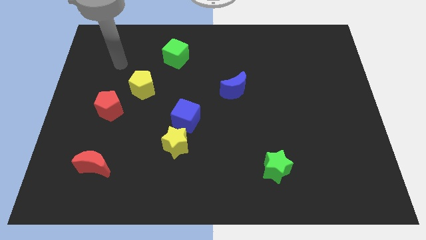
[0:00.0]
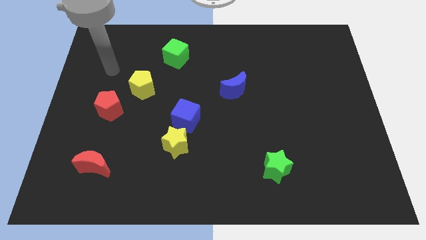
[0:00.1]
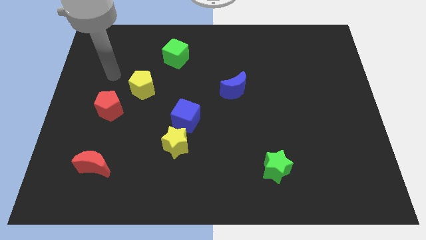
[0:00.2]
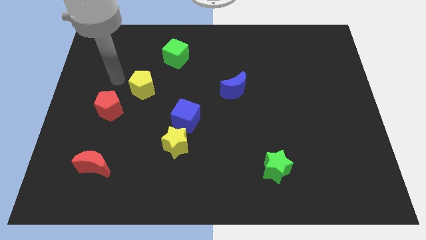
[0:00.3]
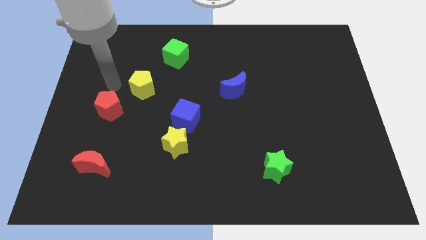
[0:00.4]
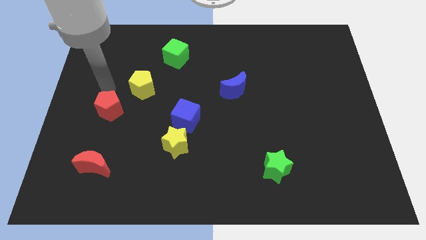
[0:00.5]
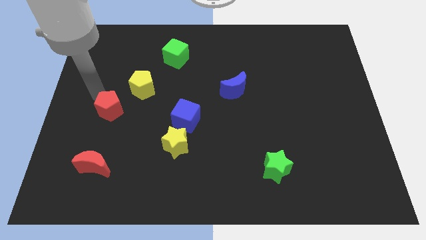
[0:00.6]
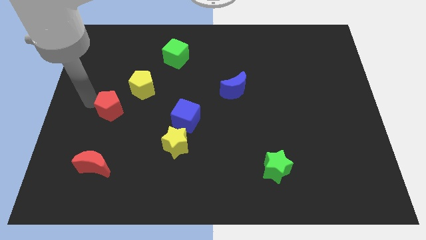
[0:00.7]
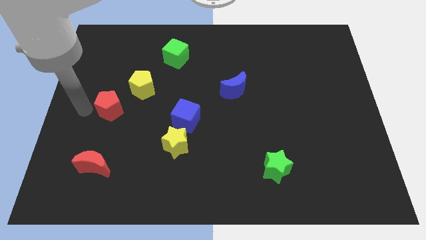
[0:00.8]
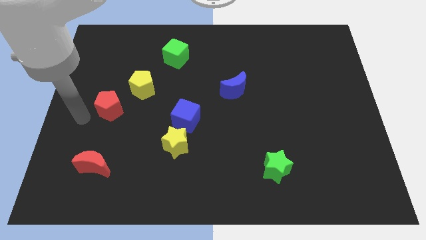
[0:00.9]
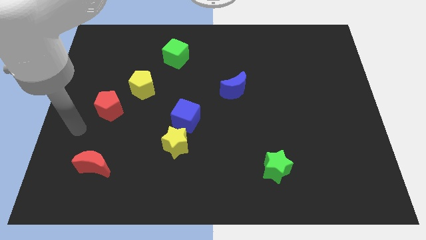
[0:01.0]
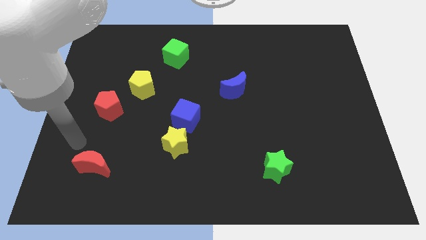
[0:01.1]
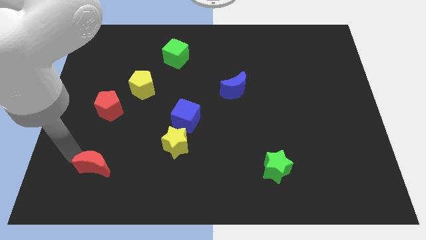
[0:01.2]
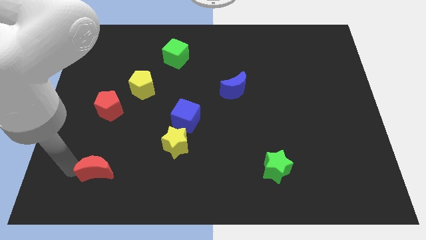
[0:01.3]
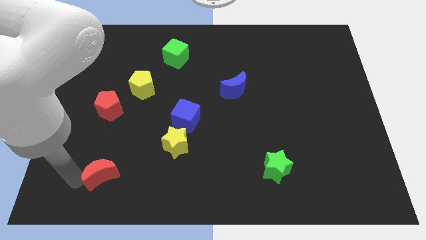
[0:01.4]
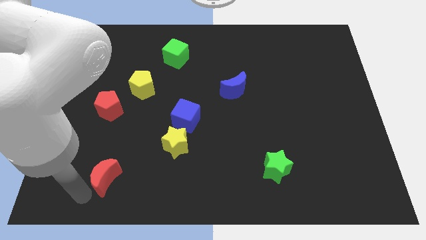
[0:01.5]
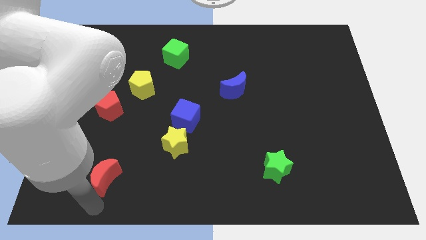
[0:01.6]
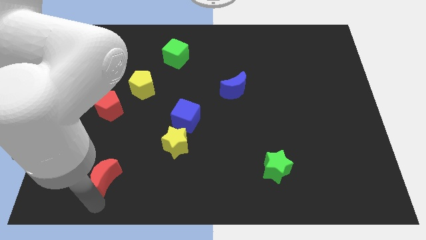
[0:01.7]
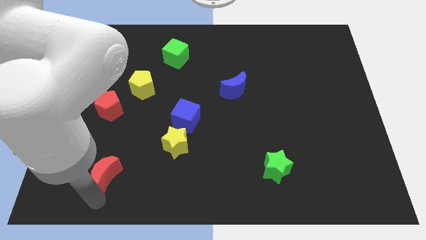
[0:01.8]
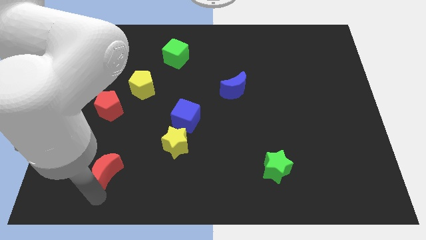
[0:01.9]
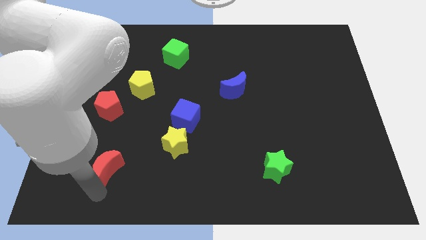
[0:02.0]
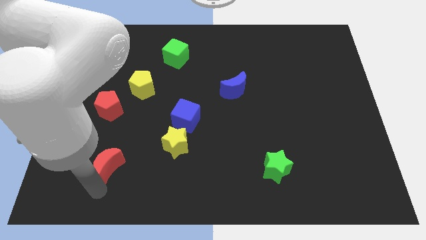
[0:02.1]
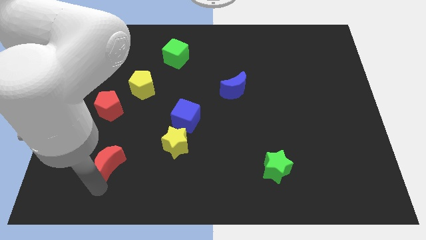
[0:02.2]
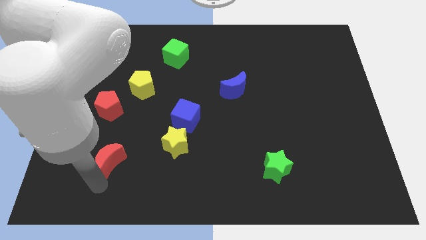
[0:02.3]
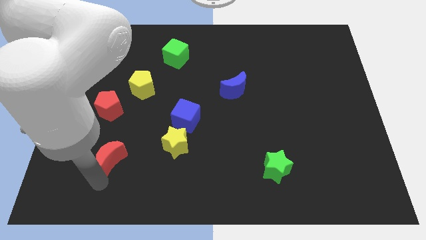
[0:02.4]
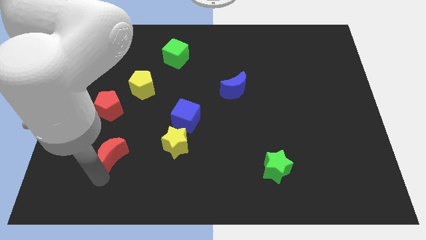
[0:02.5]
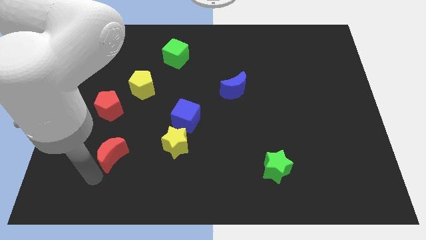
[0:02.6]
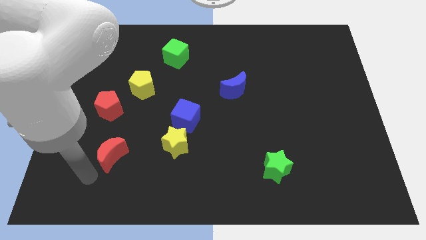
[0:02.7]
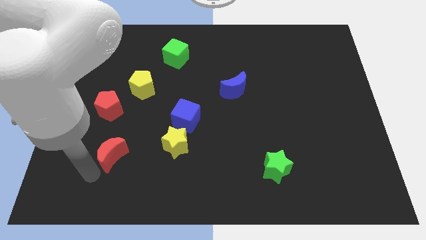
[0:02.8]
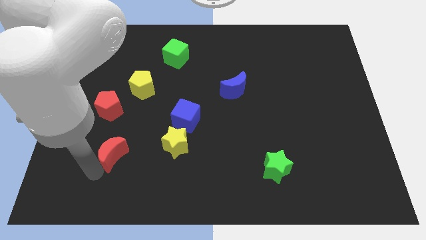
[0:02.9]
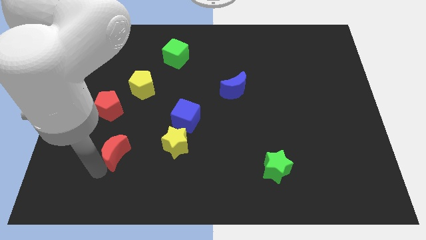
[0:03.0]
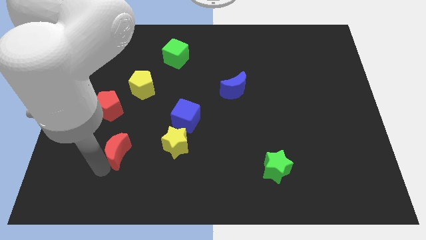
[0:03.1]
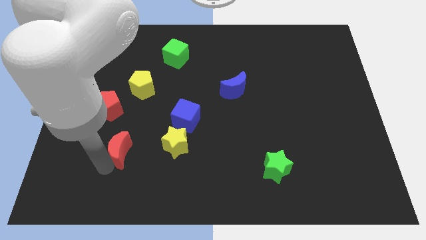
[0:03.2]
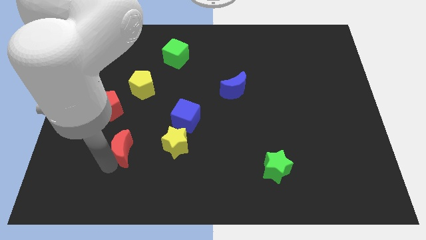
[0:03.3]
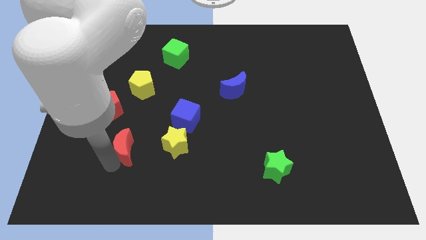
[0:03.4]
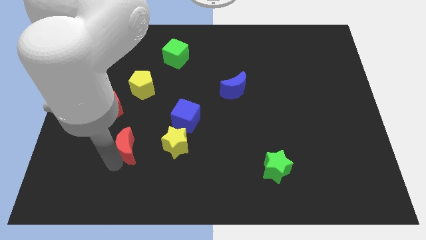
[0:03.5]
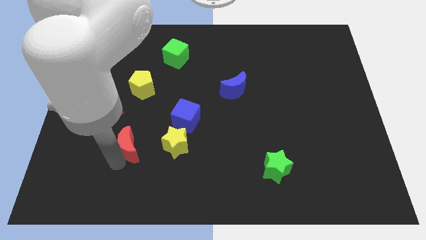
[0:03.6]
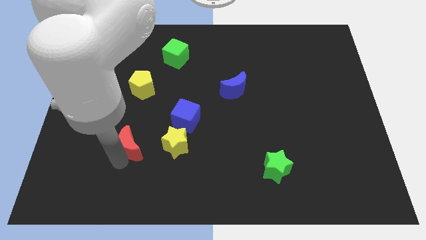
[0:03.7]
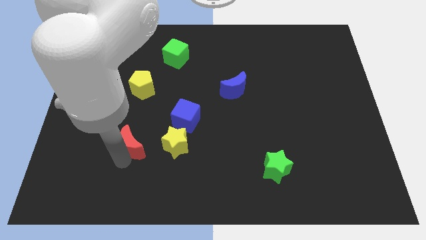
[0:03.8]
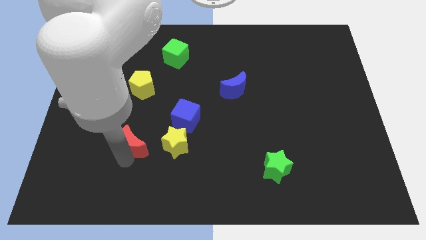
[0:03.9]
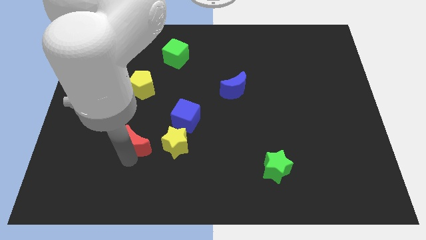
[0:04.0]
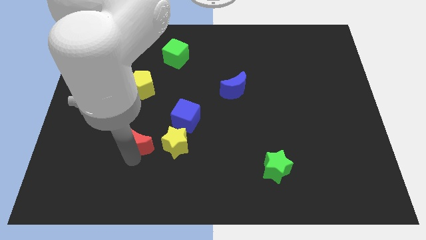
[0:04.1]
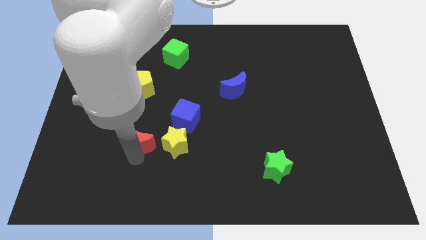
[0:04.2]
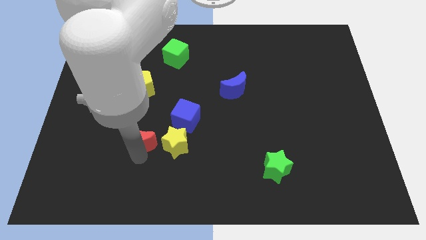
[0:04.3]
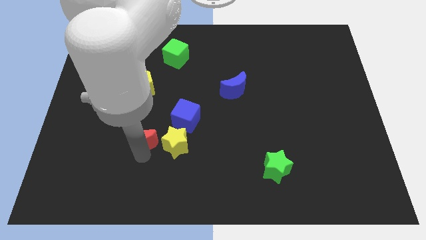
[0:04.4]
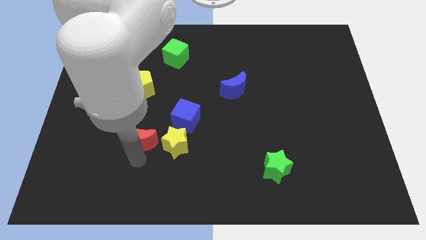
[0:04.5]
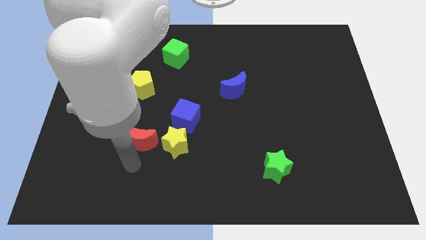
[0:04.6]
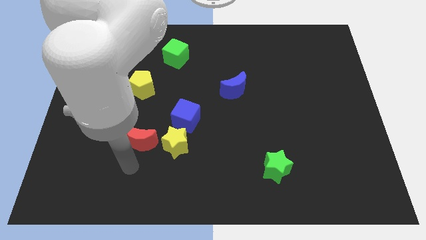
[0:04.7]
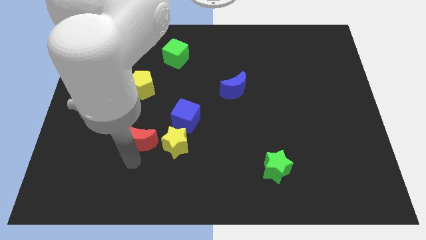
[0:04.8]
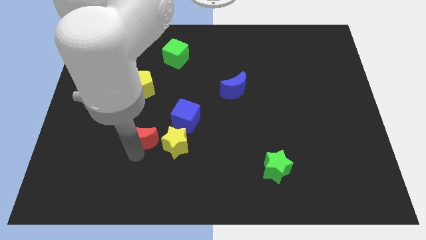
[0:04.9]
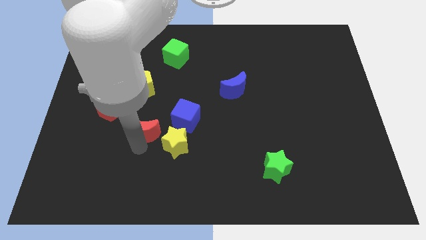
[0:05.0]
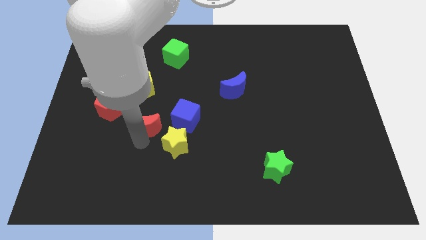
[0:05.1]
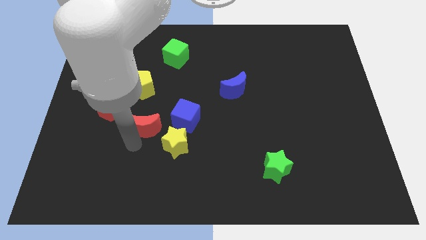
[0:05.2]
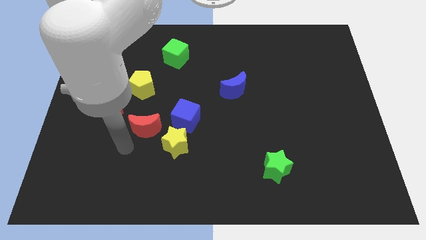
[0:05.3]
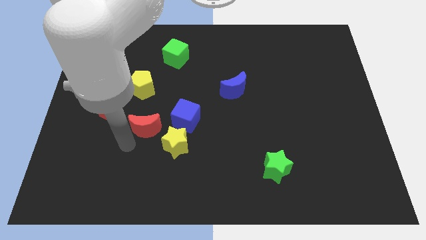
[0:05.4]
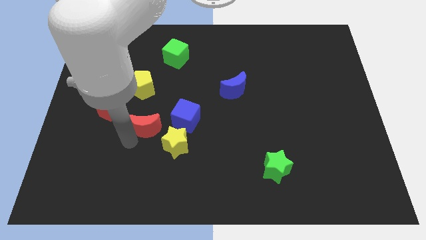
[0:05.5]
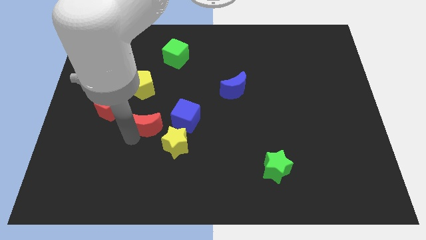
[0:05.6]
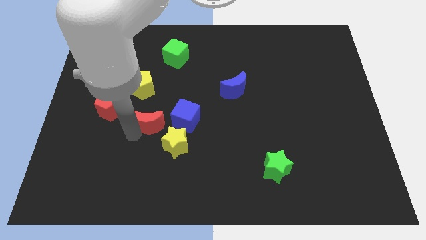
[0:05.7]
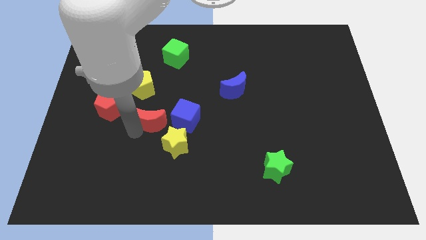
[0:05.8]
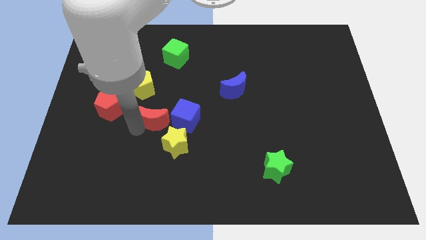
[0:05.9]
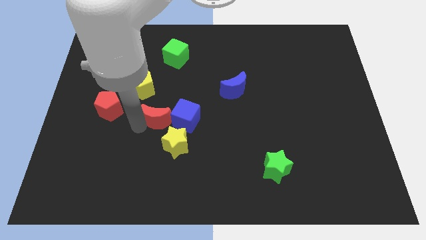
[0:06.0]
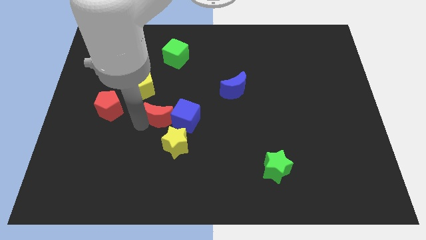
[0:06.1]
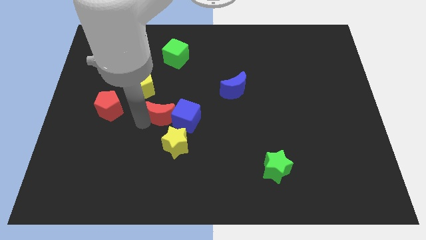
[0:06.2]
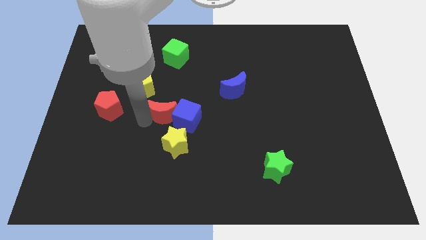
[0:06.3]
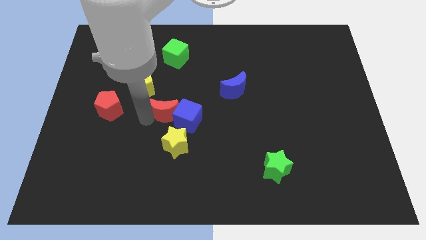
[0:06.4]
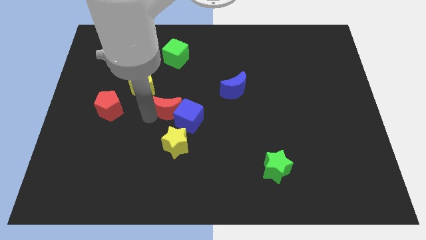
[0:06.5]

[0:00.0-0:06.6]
move the red moon up and then right

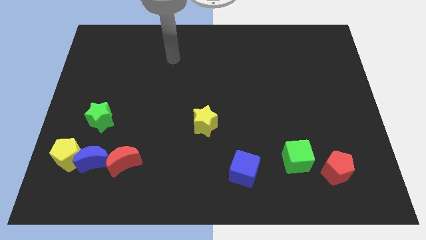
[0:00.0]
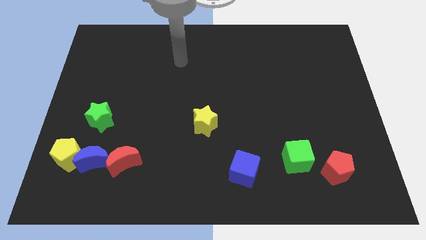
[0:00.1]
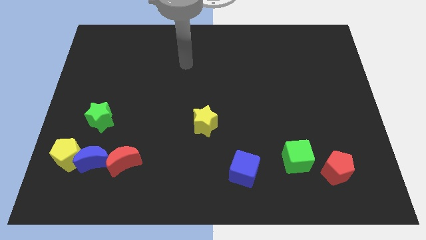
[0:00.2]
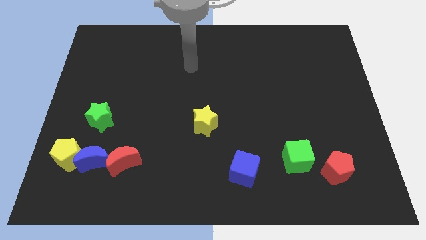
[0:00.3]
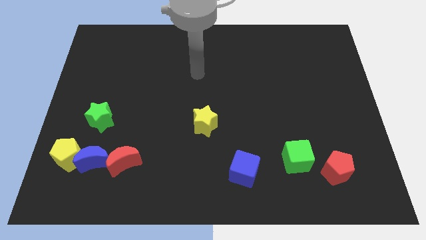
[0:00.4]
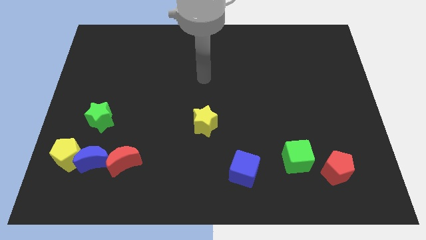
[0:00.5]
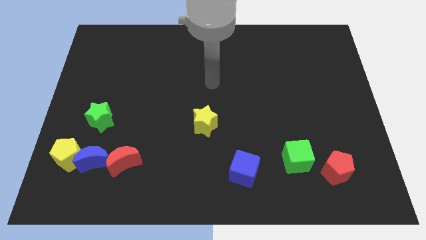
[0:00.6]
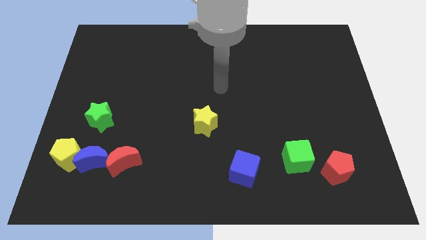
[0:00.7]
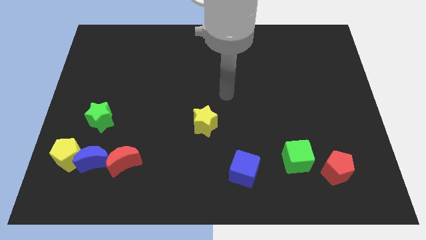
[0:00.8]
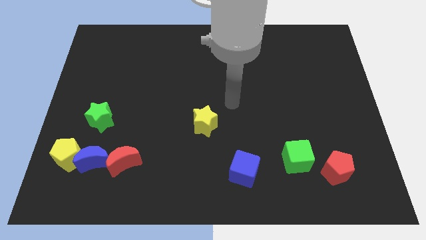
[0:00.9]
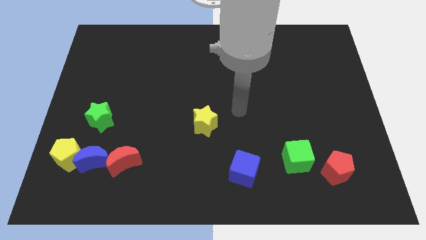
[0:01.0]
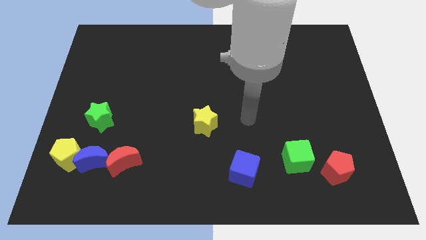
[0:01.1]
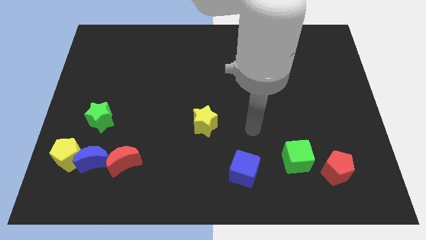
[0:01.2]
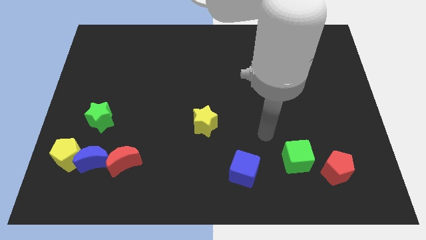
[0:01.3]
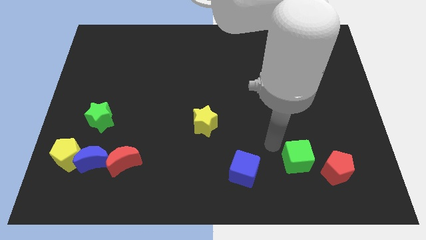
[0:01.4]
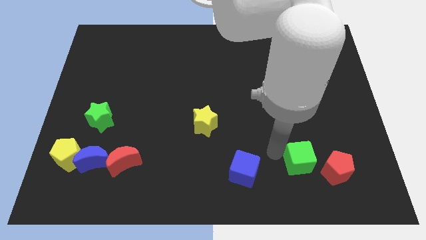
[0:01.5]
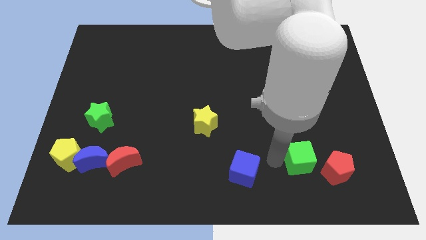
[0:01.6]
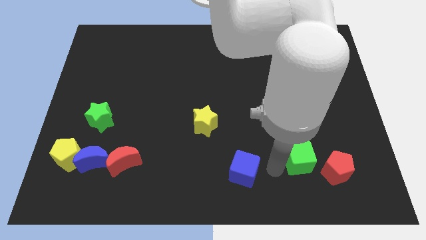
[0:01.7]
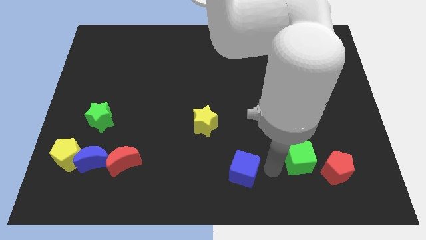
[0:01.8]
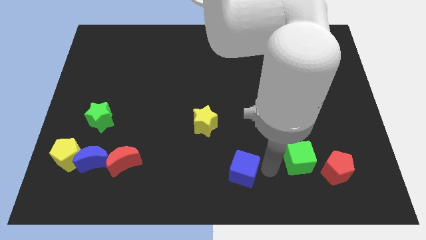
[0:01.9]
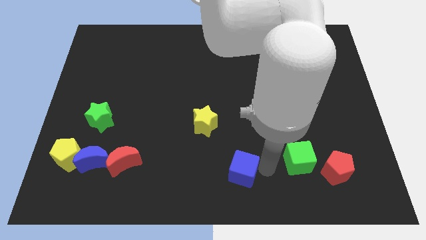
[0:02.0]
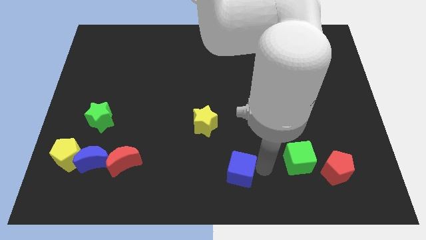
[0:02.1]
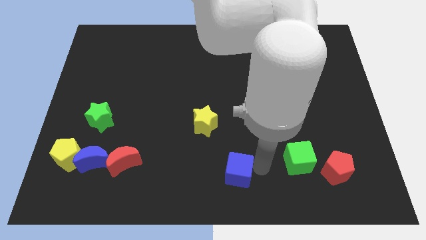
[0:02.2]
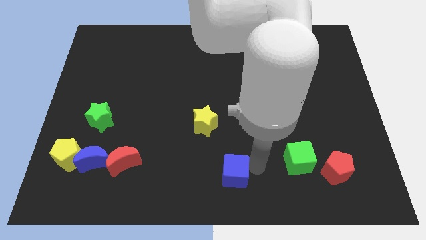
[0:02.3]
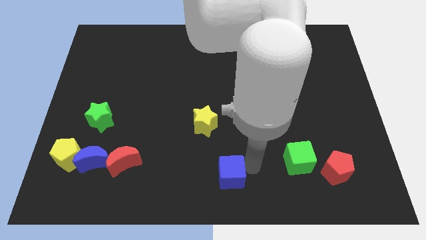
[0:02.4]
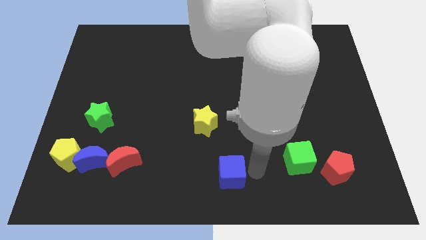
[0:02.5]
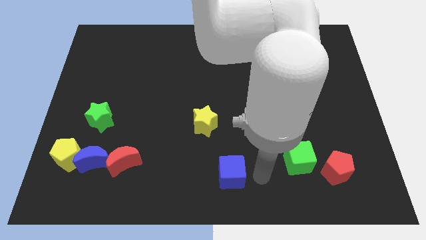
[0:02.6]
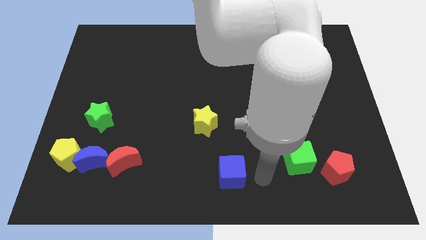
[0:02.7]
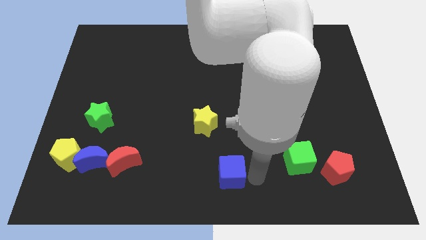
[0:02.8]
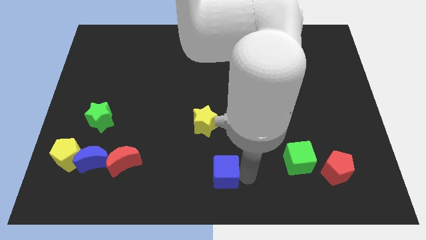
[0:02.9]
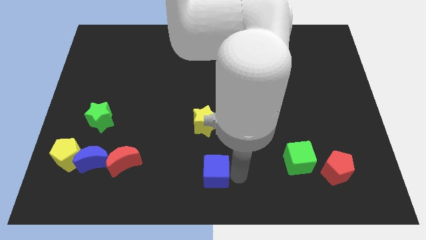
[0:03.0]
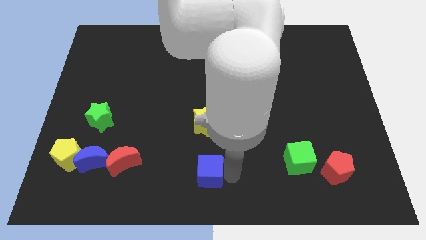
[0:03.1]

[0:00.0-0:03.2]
move the blue cube left a little bit
